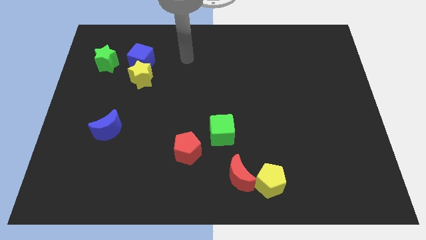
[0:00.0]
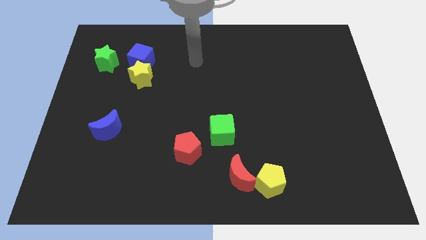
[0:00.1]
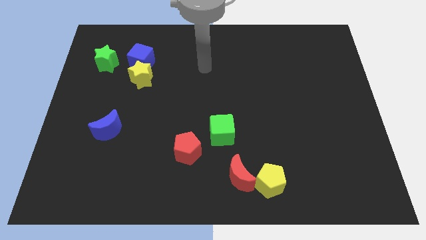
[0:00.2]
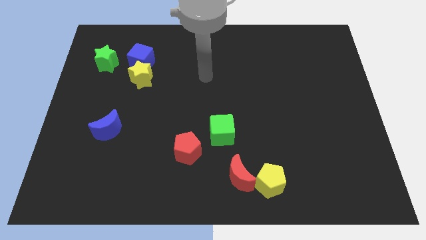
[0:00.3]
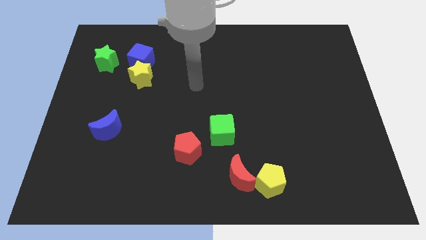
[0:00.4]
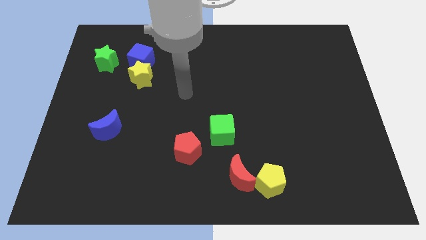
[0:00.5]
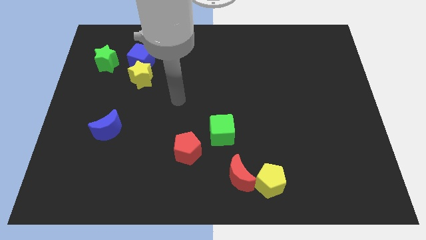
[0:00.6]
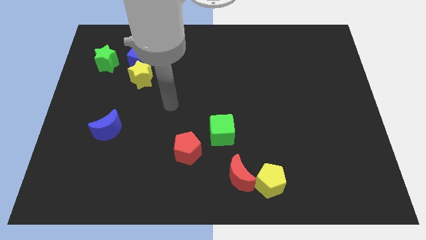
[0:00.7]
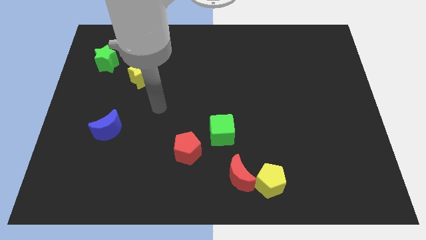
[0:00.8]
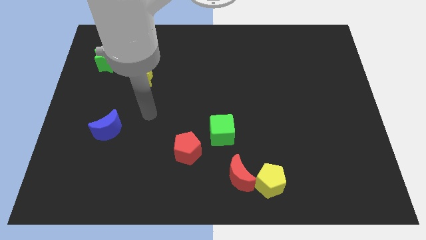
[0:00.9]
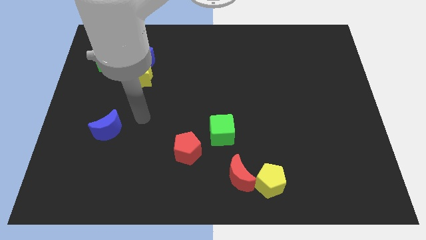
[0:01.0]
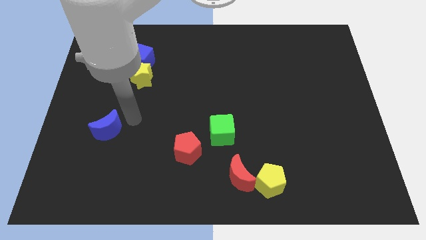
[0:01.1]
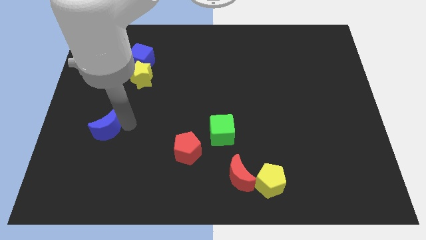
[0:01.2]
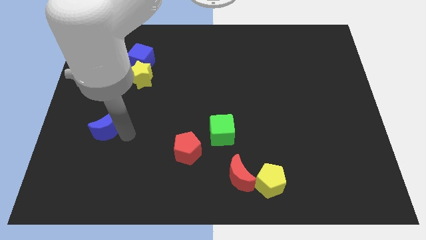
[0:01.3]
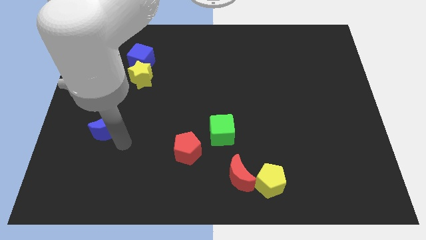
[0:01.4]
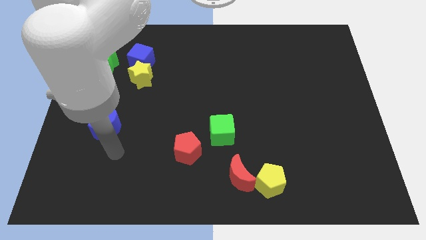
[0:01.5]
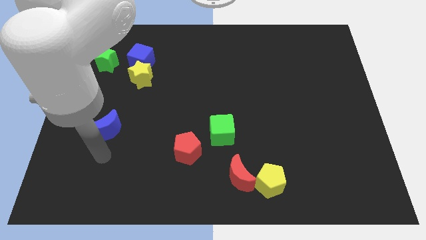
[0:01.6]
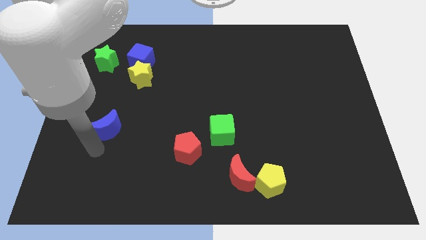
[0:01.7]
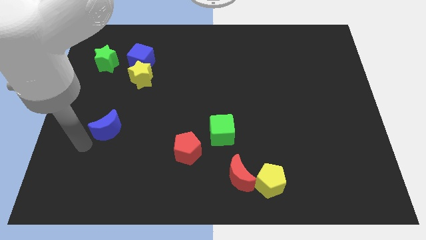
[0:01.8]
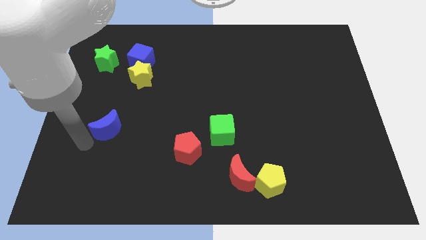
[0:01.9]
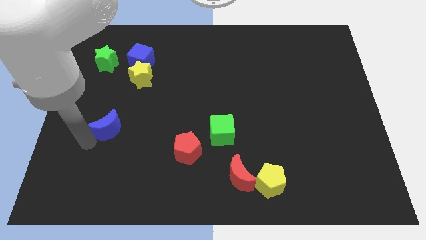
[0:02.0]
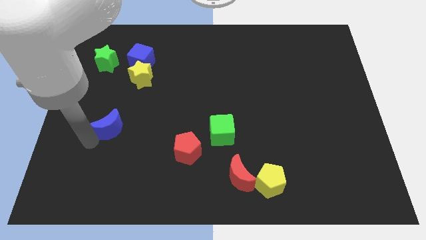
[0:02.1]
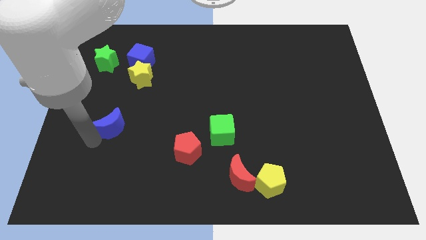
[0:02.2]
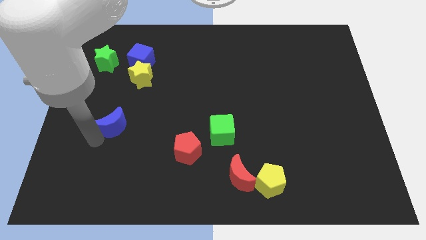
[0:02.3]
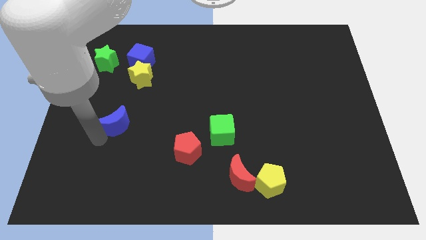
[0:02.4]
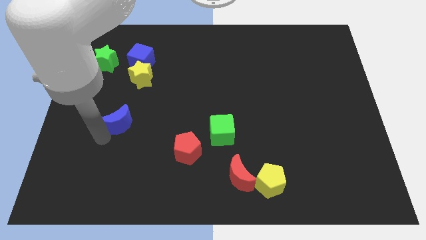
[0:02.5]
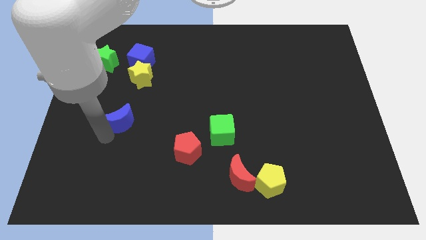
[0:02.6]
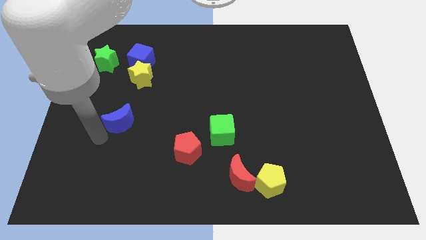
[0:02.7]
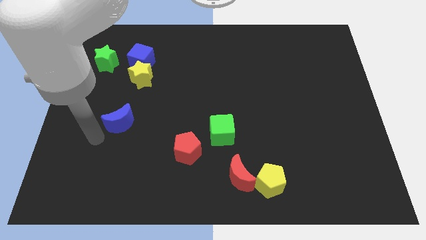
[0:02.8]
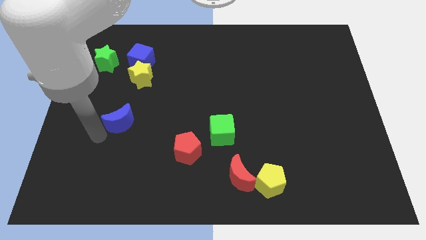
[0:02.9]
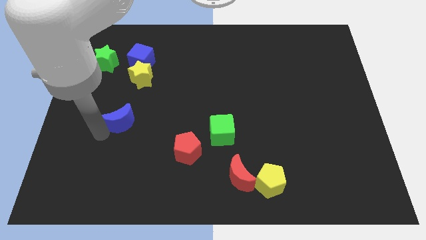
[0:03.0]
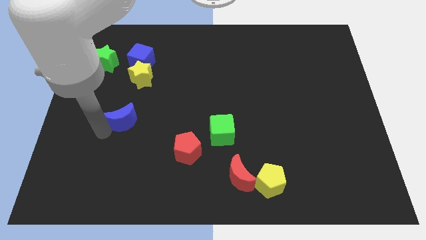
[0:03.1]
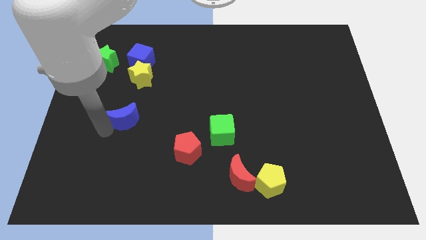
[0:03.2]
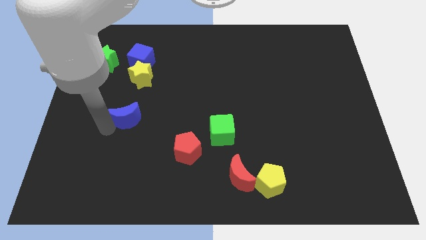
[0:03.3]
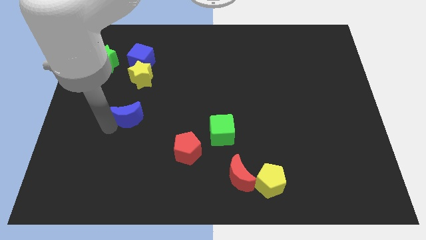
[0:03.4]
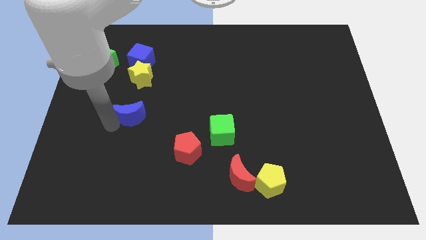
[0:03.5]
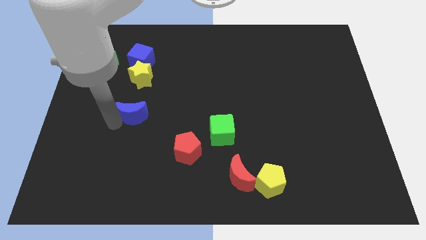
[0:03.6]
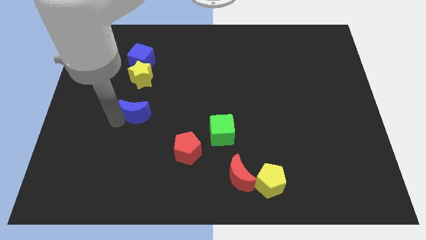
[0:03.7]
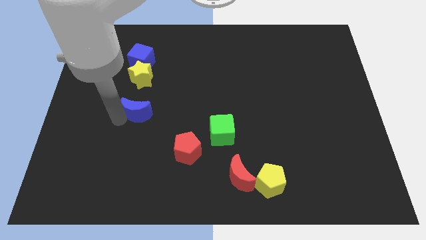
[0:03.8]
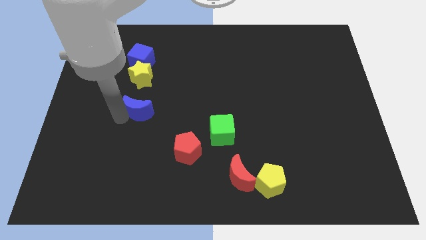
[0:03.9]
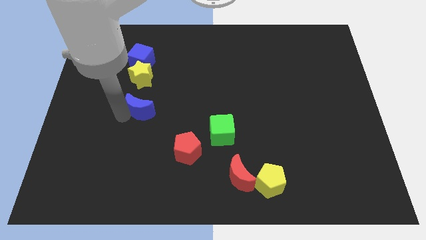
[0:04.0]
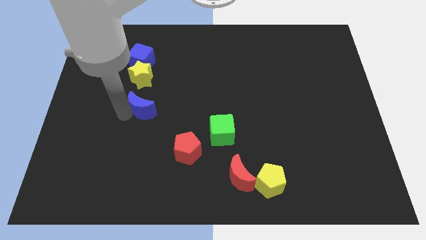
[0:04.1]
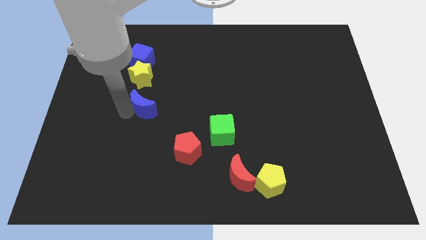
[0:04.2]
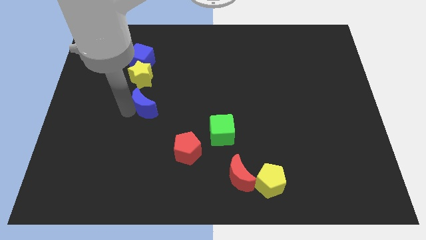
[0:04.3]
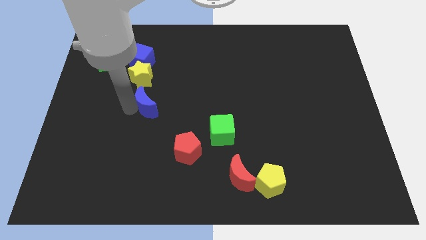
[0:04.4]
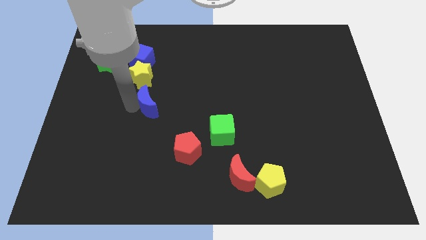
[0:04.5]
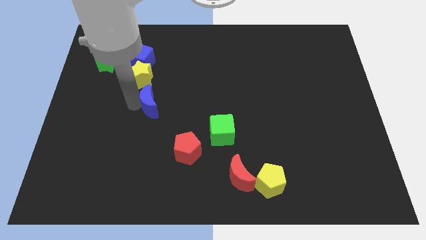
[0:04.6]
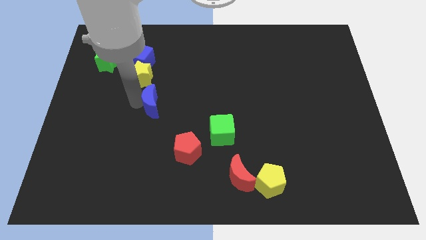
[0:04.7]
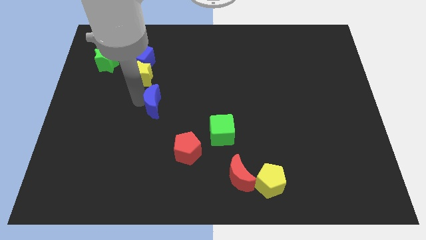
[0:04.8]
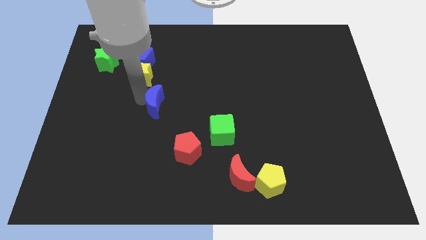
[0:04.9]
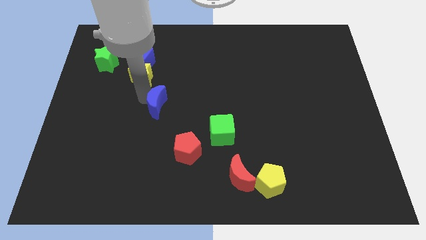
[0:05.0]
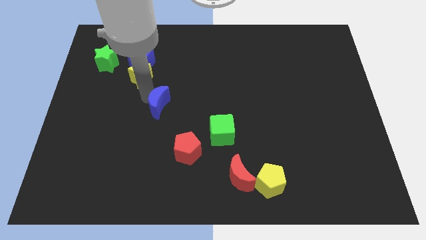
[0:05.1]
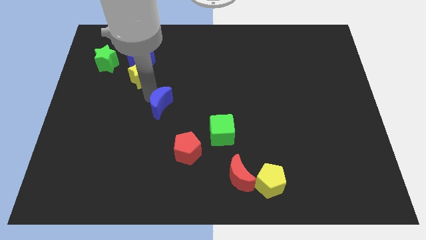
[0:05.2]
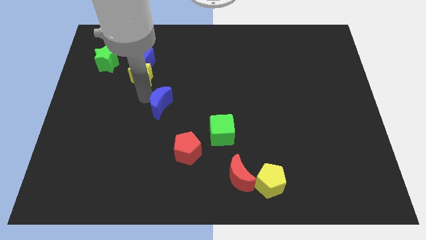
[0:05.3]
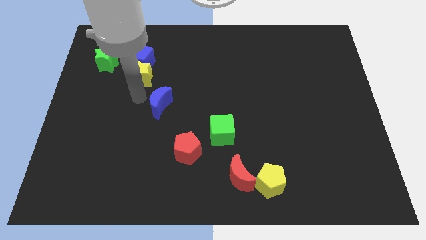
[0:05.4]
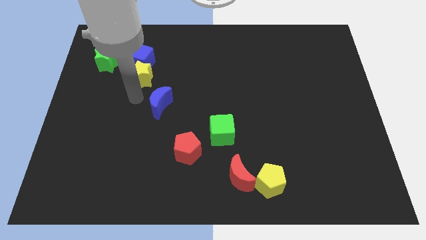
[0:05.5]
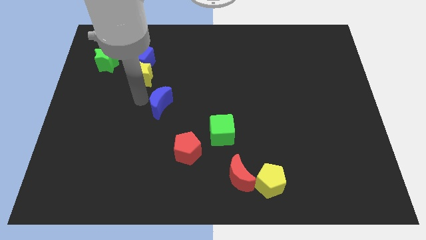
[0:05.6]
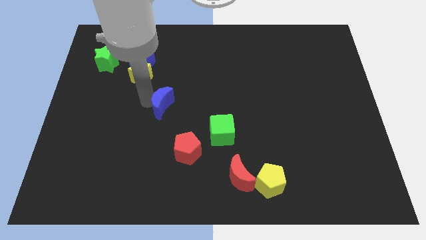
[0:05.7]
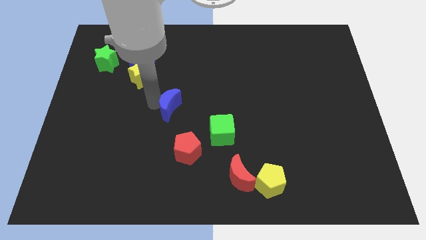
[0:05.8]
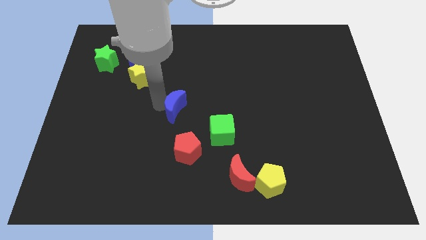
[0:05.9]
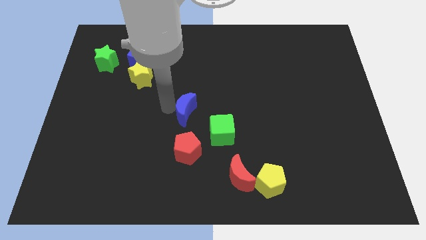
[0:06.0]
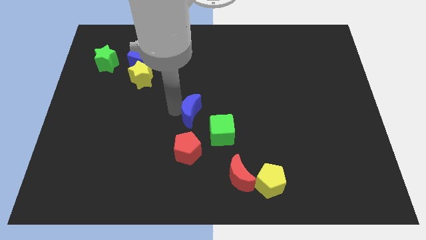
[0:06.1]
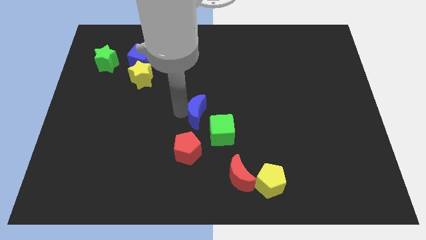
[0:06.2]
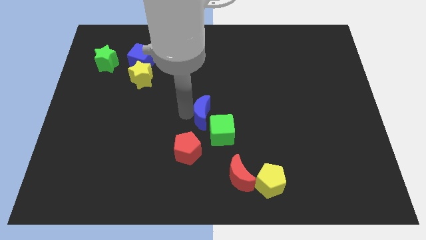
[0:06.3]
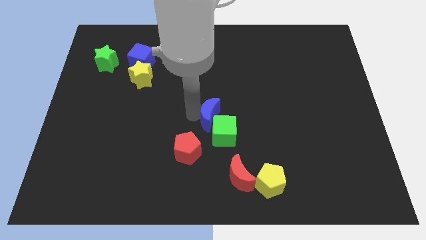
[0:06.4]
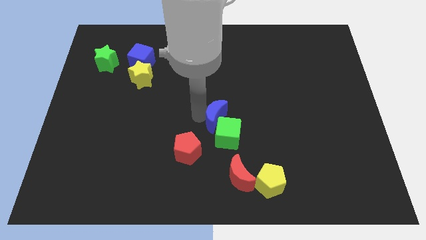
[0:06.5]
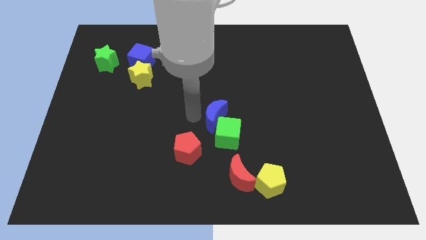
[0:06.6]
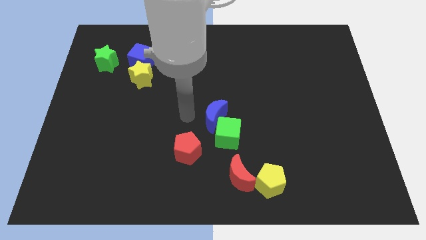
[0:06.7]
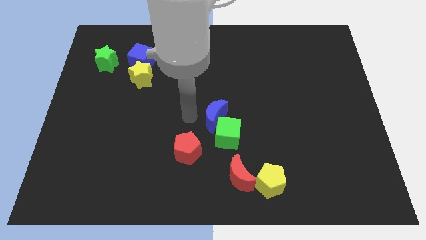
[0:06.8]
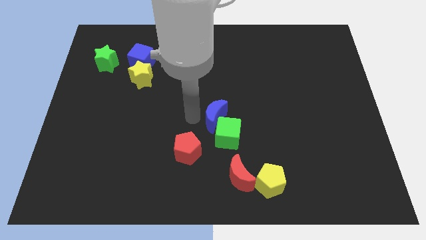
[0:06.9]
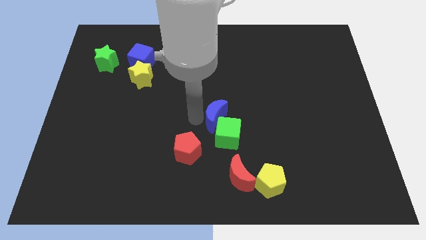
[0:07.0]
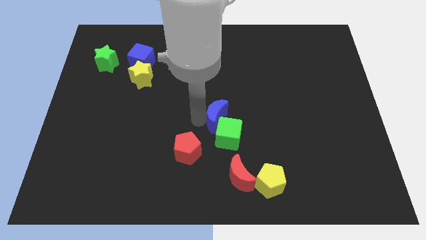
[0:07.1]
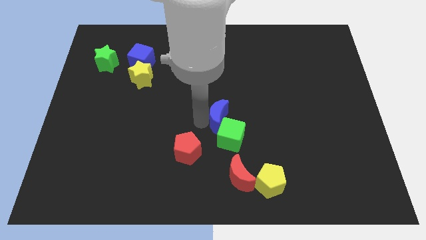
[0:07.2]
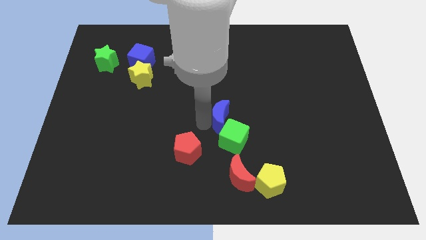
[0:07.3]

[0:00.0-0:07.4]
slide the blue moon above the red moon

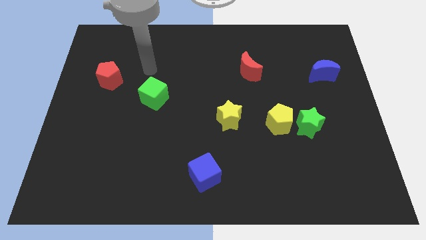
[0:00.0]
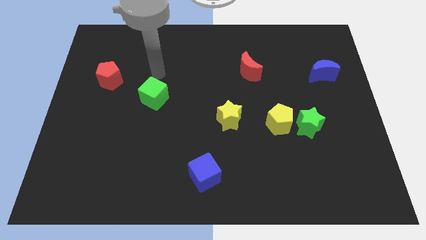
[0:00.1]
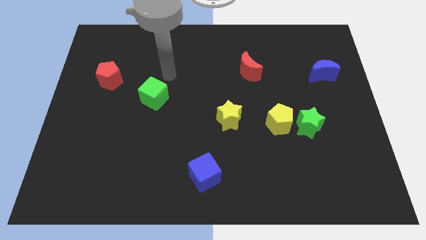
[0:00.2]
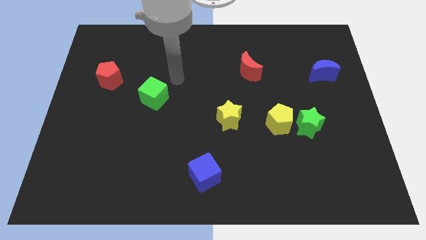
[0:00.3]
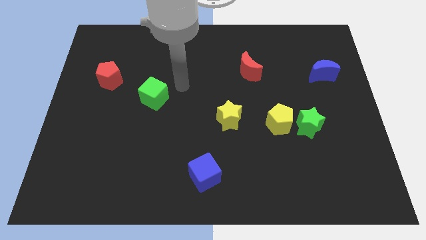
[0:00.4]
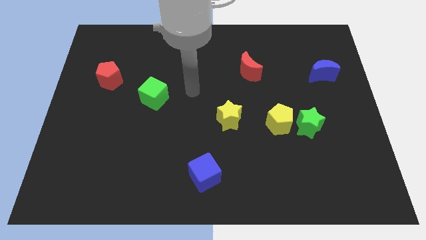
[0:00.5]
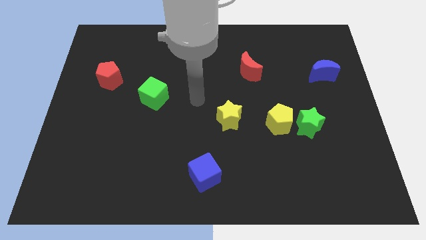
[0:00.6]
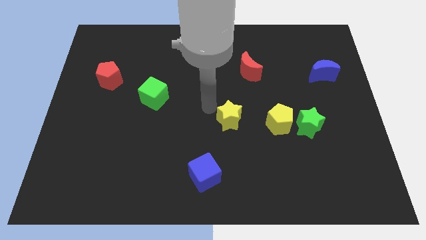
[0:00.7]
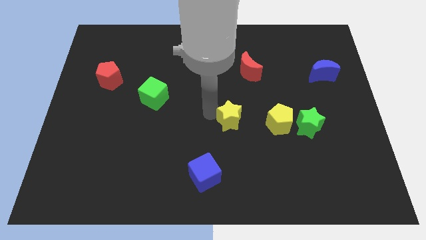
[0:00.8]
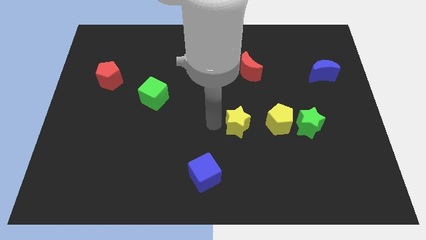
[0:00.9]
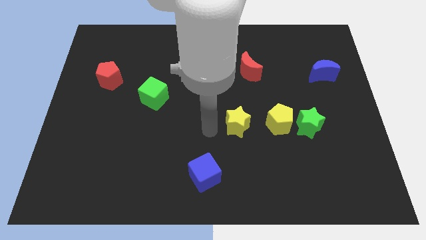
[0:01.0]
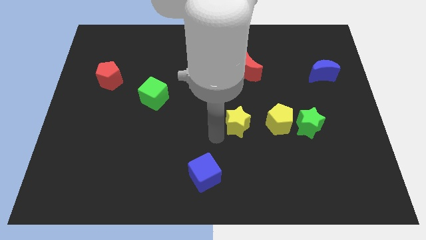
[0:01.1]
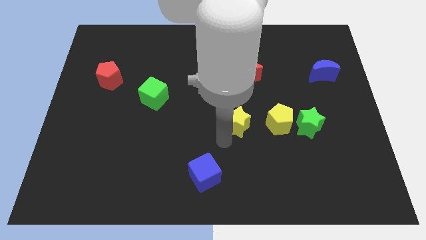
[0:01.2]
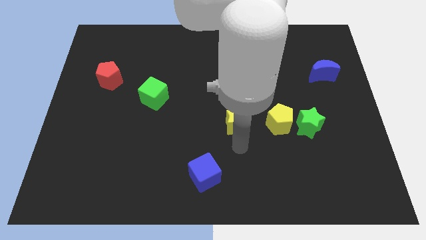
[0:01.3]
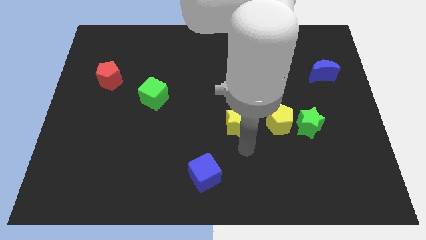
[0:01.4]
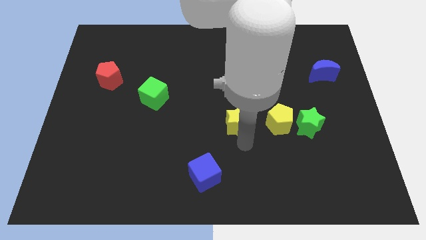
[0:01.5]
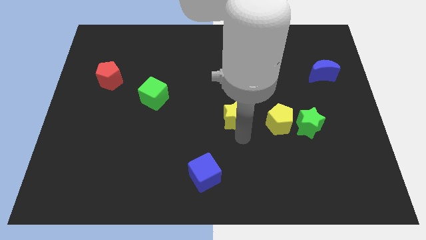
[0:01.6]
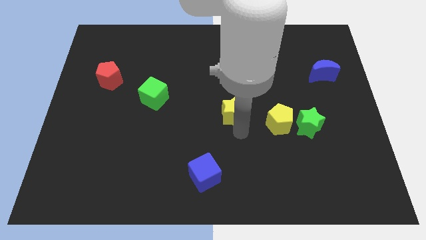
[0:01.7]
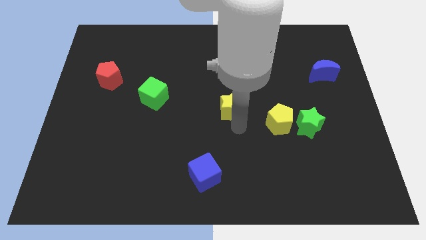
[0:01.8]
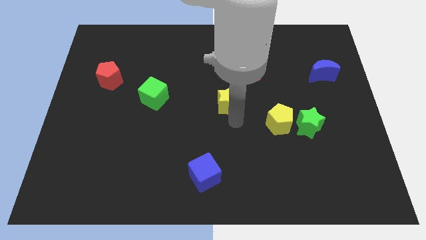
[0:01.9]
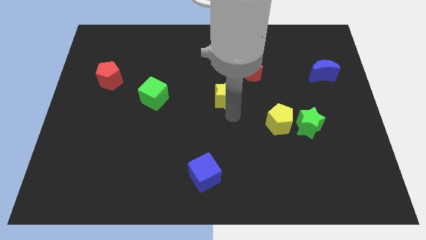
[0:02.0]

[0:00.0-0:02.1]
slide the yellow star diagonally down and to the left of the red moon
